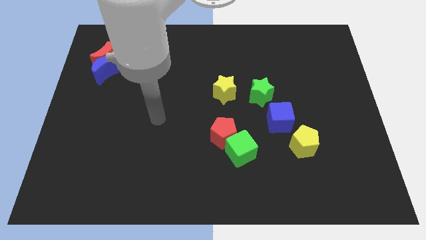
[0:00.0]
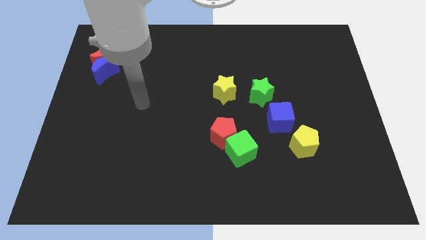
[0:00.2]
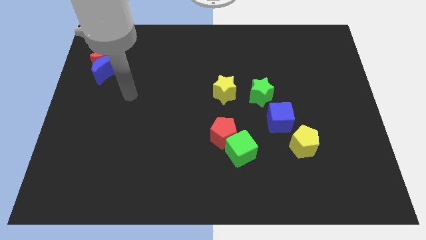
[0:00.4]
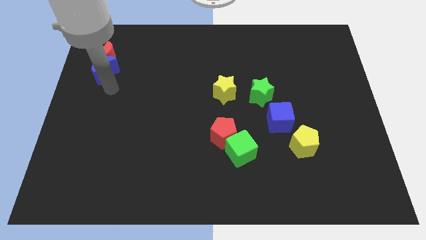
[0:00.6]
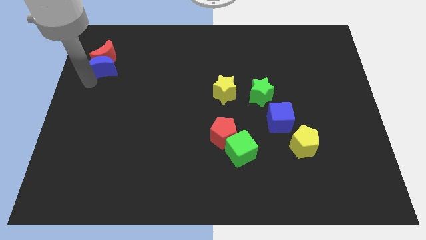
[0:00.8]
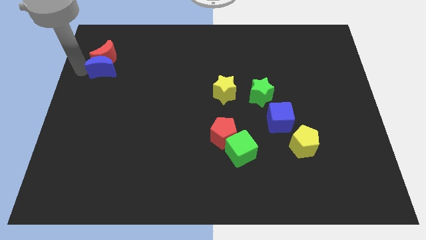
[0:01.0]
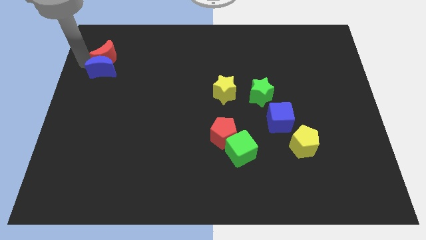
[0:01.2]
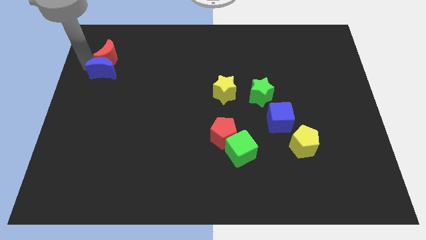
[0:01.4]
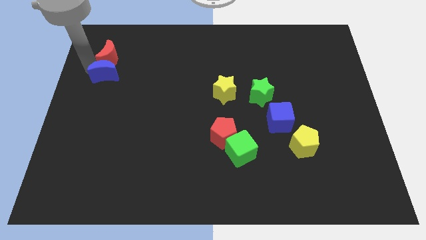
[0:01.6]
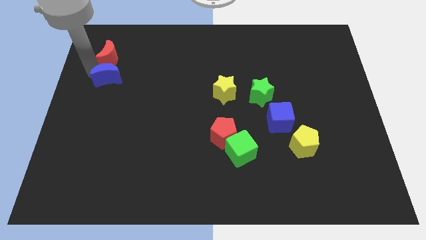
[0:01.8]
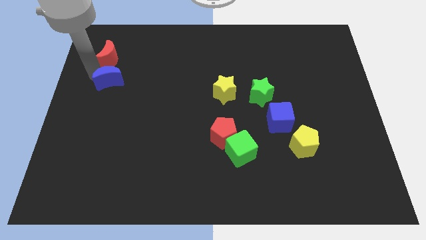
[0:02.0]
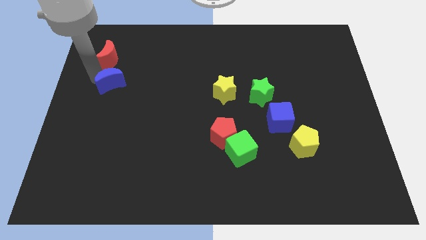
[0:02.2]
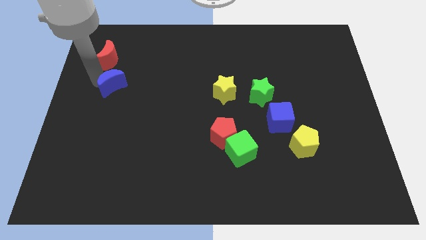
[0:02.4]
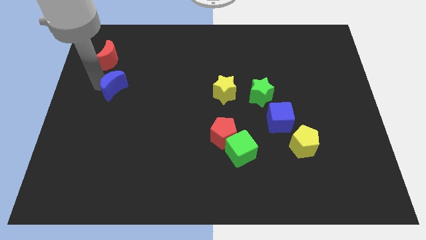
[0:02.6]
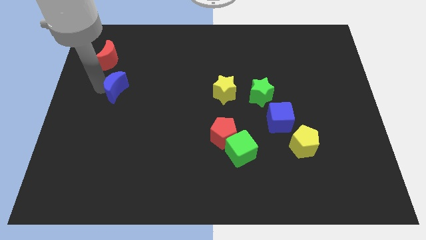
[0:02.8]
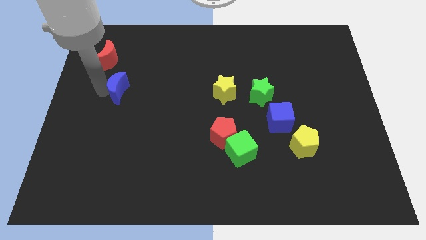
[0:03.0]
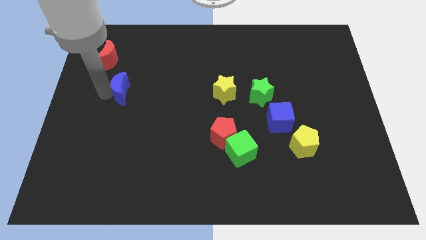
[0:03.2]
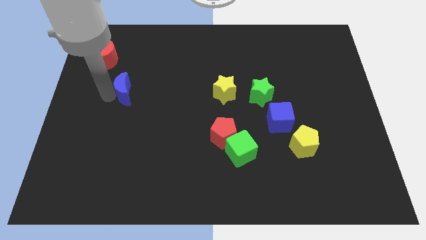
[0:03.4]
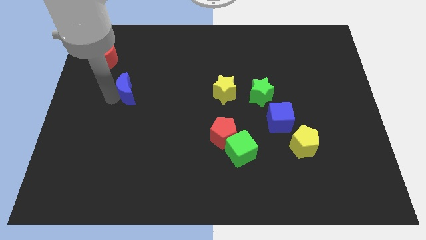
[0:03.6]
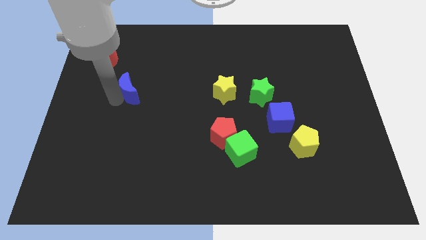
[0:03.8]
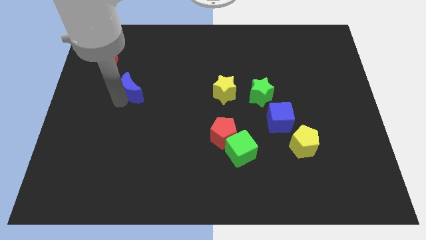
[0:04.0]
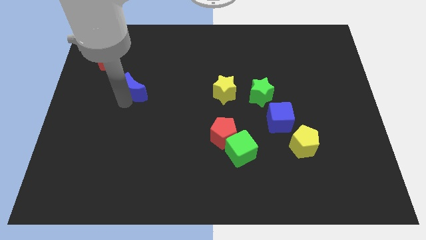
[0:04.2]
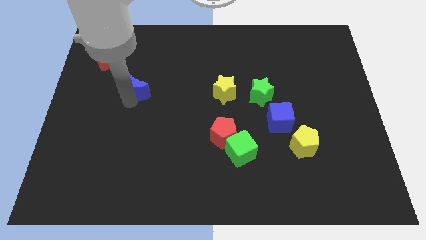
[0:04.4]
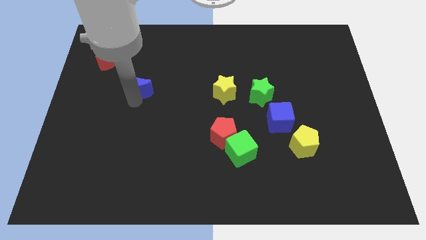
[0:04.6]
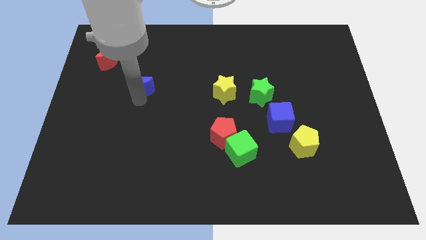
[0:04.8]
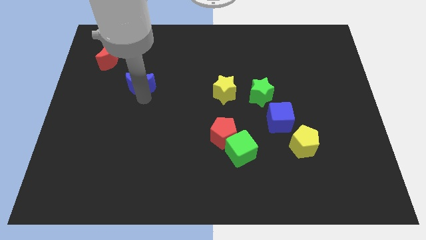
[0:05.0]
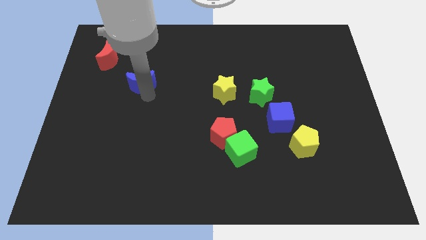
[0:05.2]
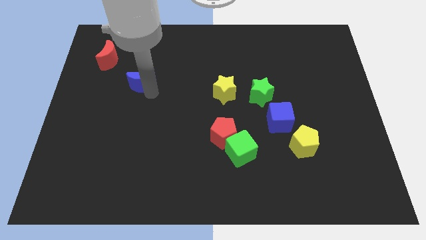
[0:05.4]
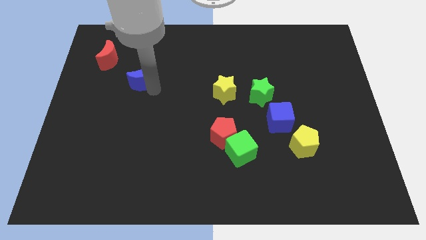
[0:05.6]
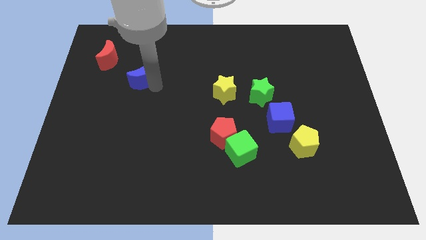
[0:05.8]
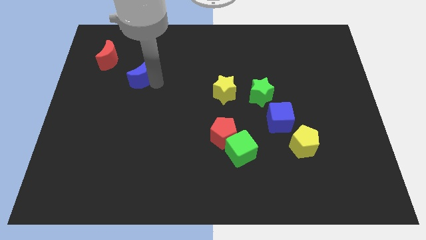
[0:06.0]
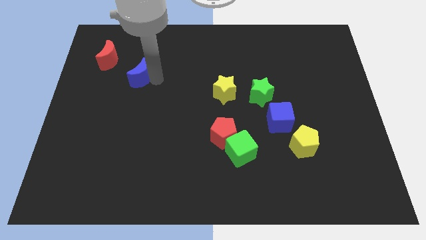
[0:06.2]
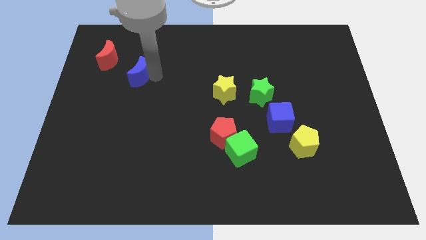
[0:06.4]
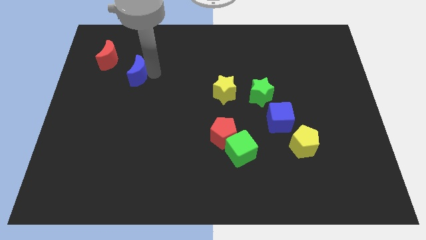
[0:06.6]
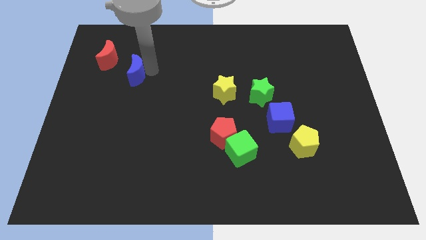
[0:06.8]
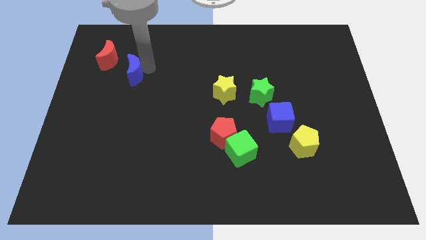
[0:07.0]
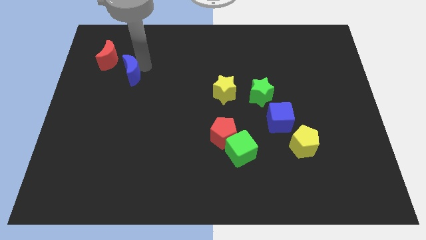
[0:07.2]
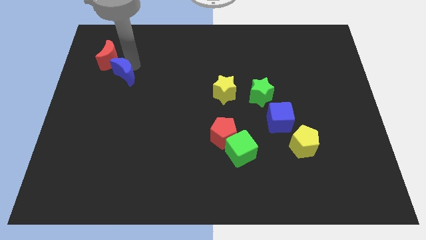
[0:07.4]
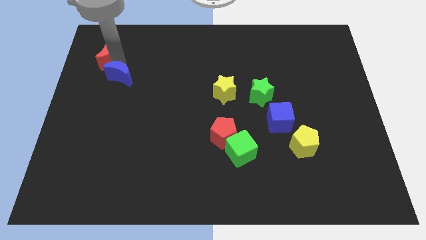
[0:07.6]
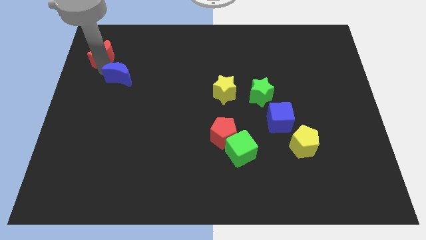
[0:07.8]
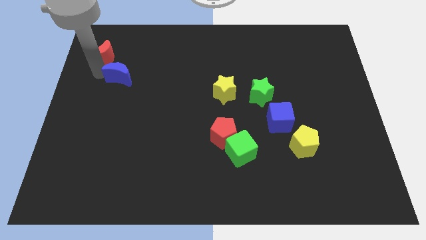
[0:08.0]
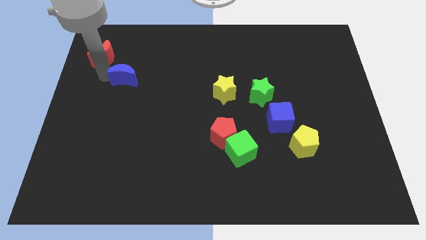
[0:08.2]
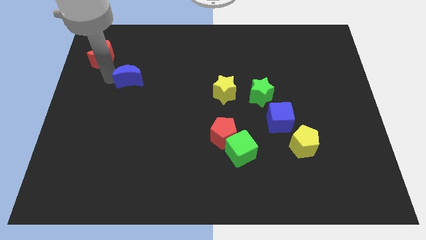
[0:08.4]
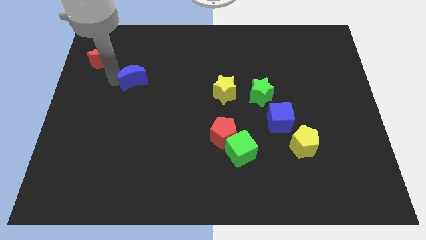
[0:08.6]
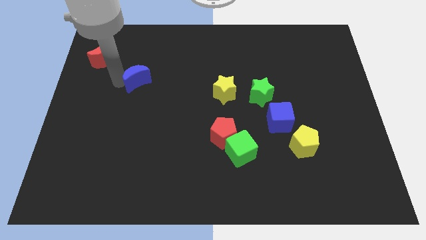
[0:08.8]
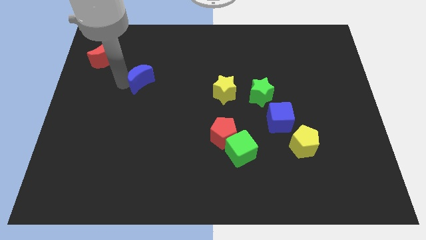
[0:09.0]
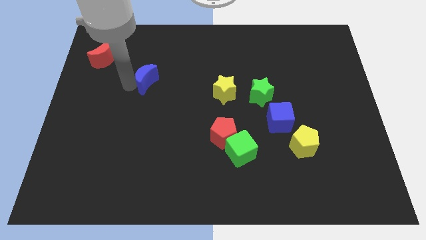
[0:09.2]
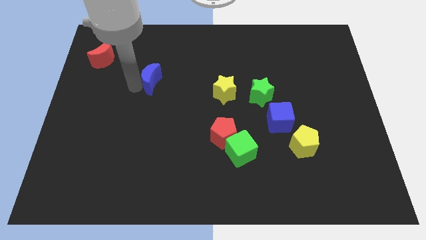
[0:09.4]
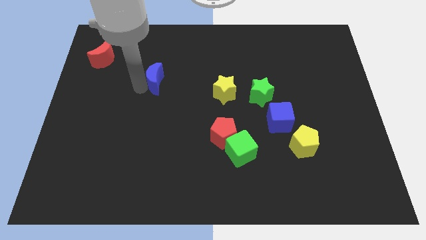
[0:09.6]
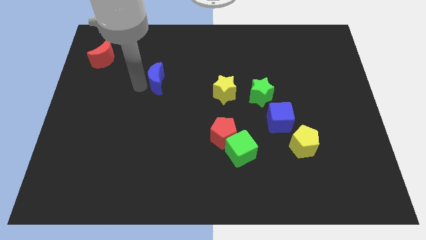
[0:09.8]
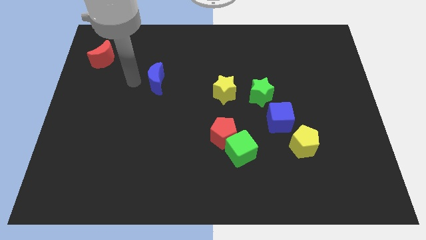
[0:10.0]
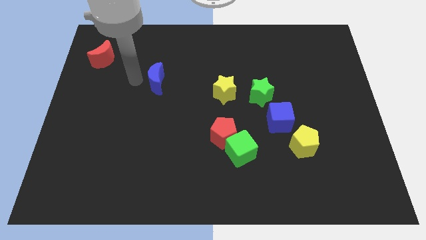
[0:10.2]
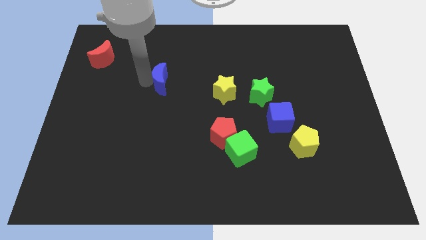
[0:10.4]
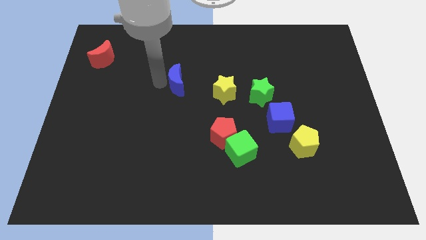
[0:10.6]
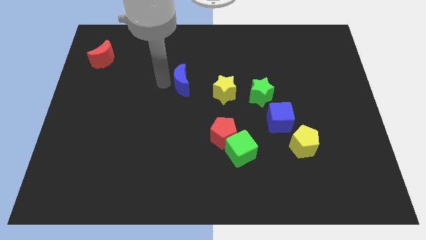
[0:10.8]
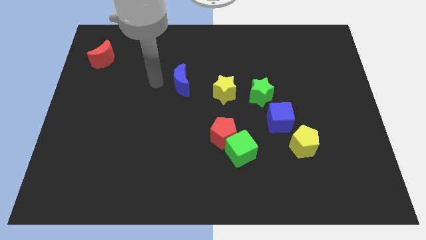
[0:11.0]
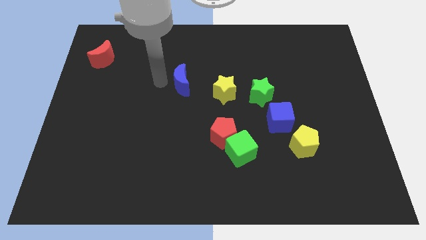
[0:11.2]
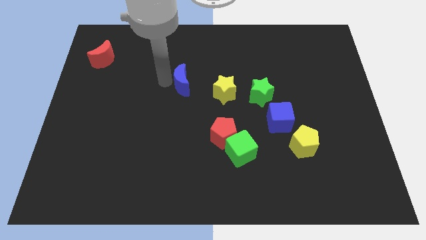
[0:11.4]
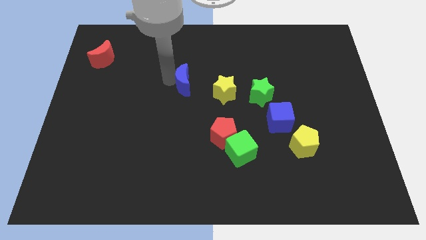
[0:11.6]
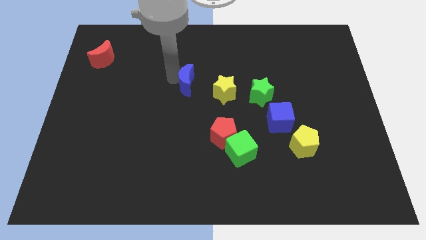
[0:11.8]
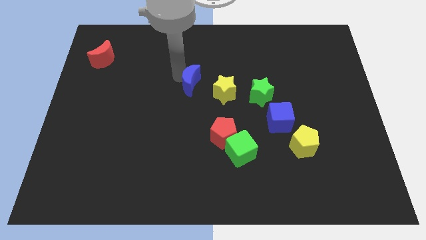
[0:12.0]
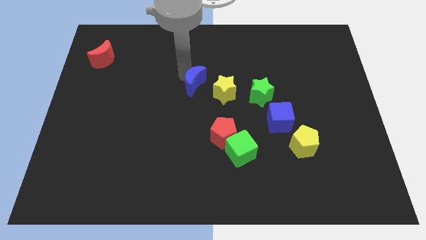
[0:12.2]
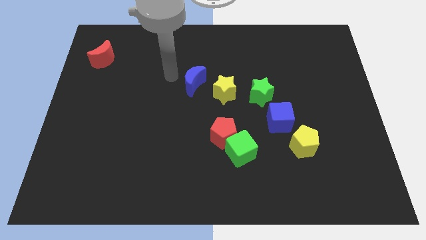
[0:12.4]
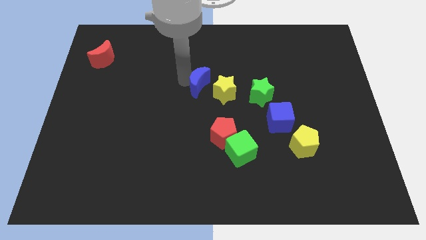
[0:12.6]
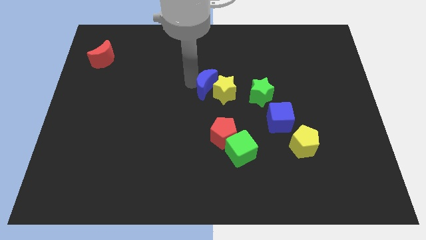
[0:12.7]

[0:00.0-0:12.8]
push the blue moon next to the yellow star

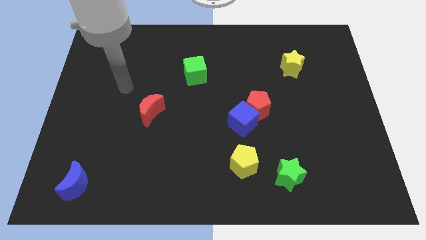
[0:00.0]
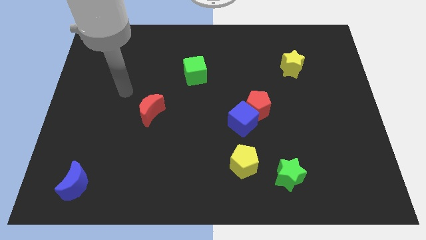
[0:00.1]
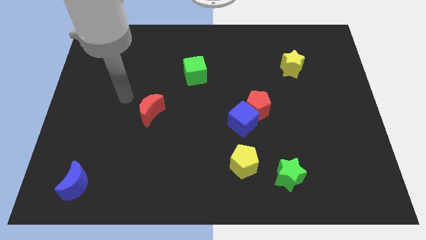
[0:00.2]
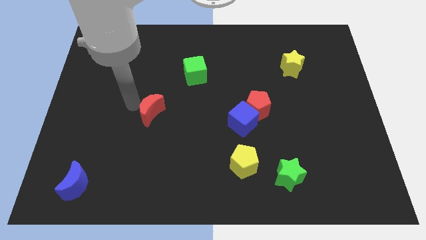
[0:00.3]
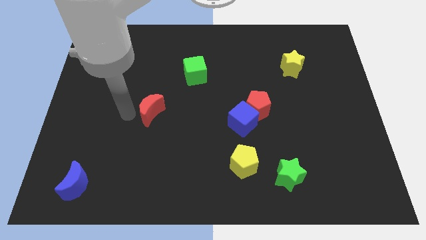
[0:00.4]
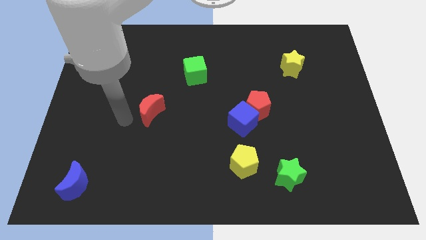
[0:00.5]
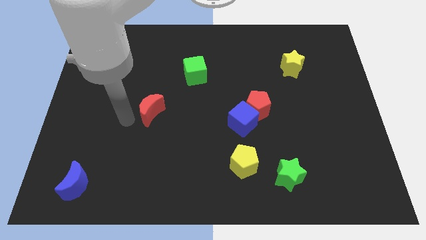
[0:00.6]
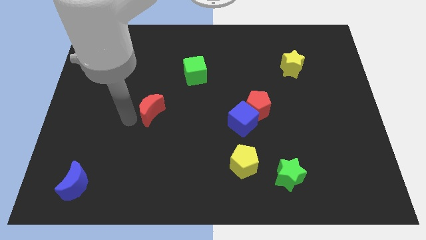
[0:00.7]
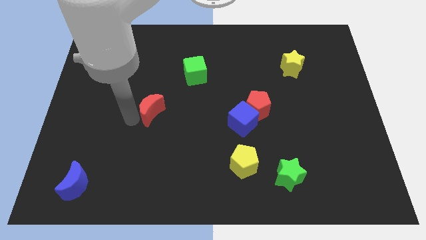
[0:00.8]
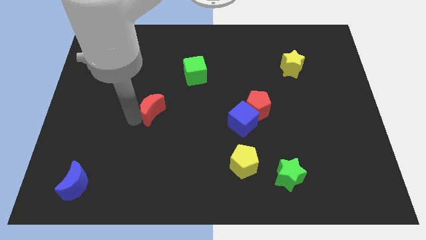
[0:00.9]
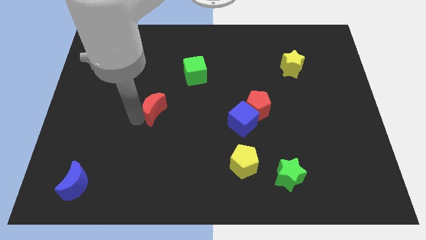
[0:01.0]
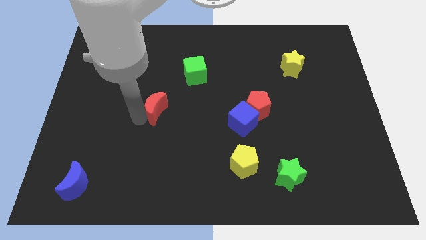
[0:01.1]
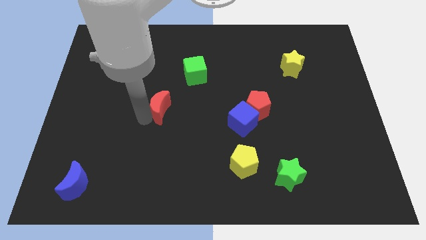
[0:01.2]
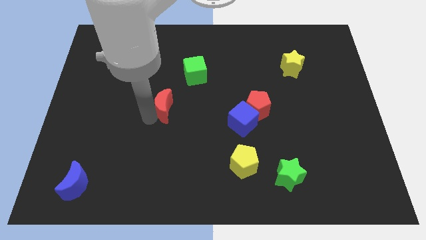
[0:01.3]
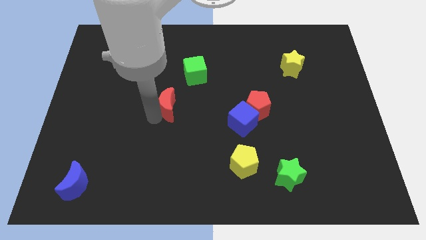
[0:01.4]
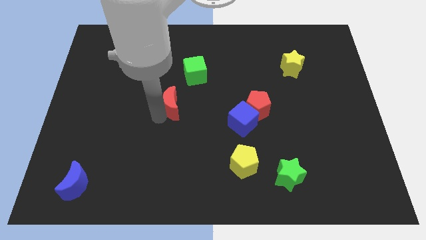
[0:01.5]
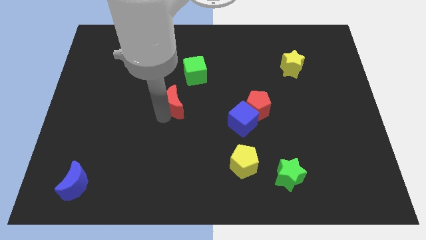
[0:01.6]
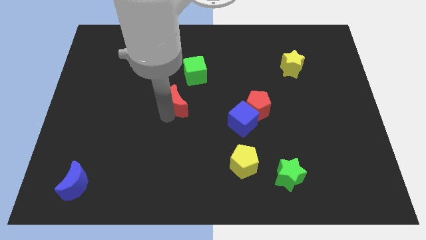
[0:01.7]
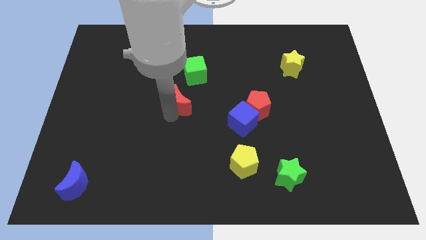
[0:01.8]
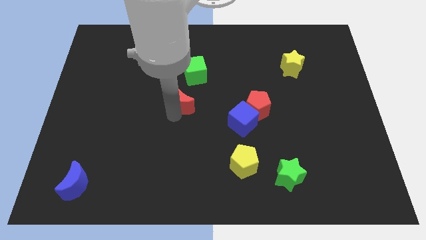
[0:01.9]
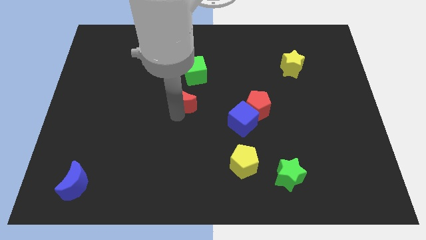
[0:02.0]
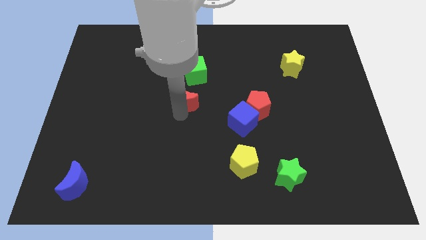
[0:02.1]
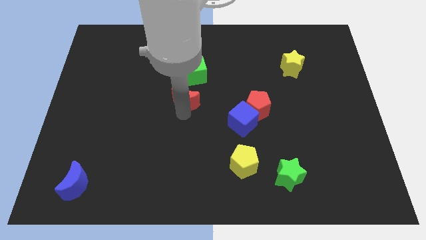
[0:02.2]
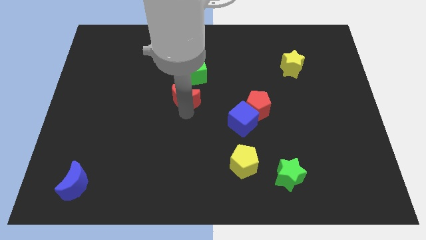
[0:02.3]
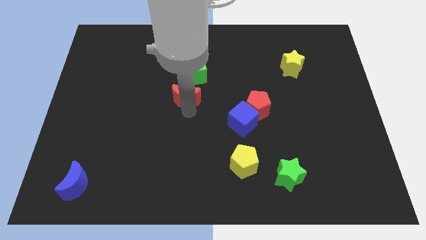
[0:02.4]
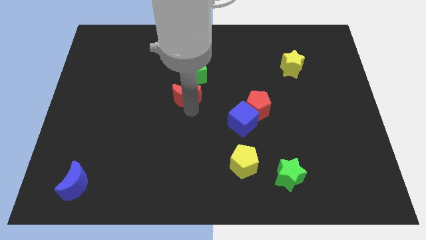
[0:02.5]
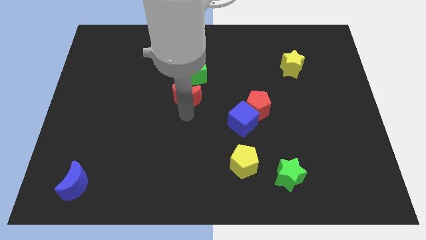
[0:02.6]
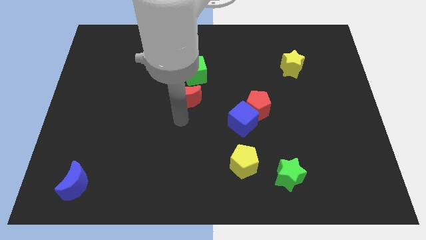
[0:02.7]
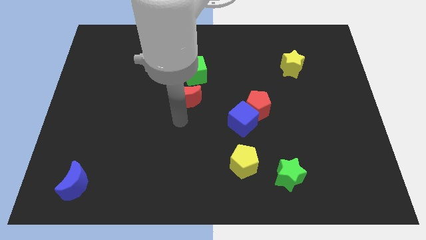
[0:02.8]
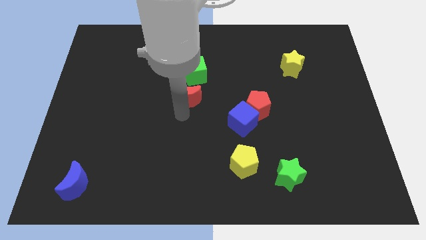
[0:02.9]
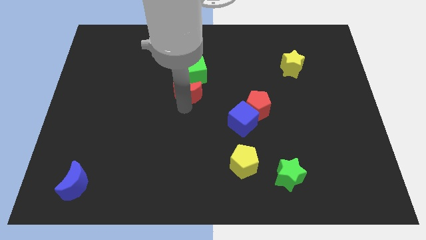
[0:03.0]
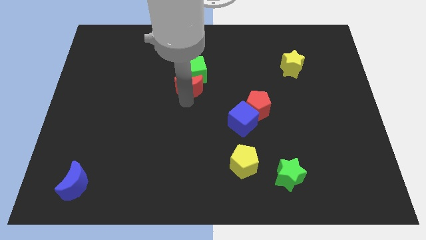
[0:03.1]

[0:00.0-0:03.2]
move the red moon towards the green cube
